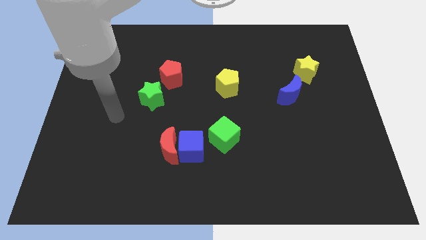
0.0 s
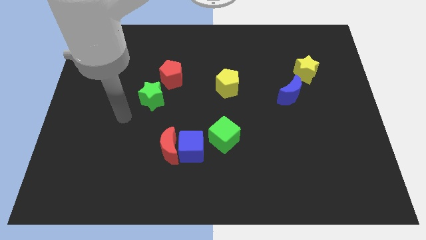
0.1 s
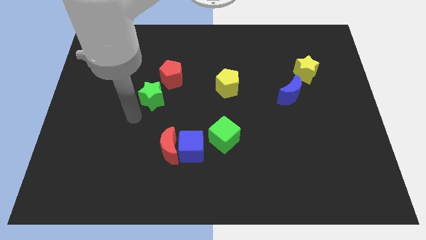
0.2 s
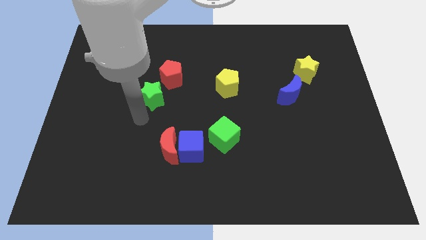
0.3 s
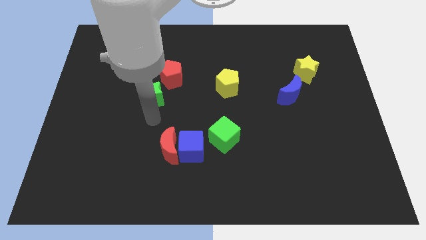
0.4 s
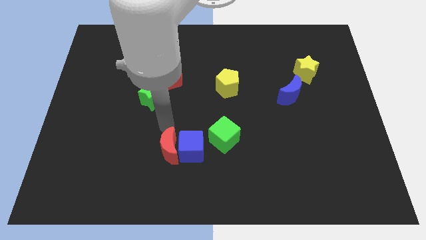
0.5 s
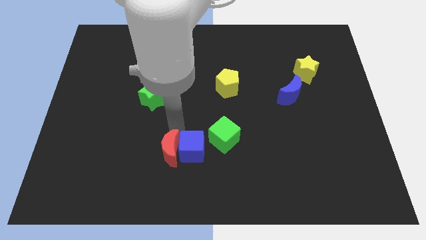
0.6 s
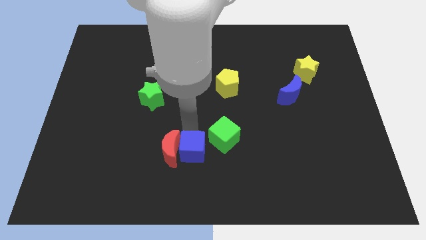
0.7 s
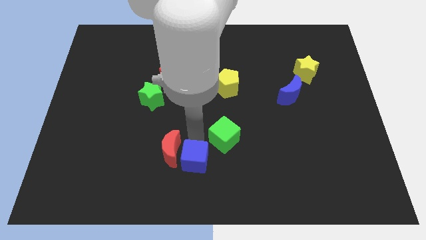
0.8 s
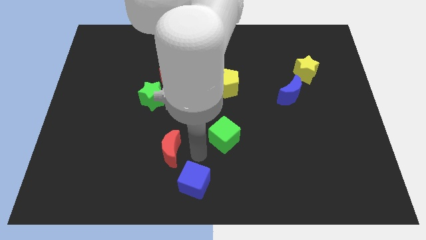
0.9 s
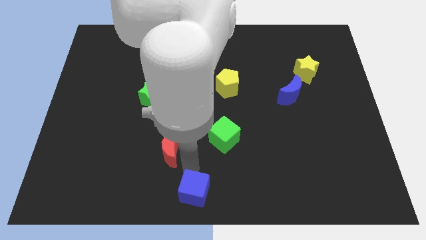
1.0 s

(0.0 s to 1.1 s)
move the red moon away from the blue cube

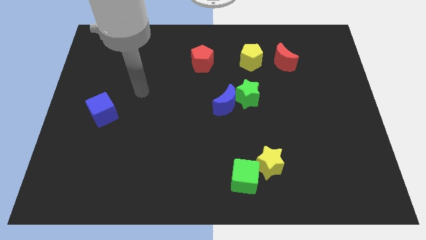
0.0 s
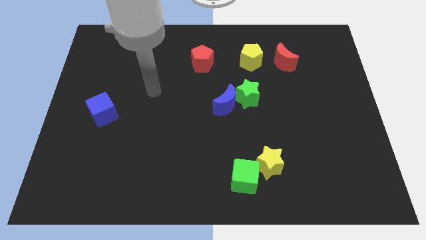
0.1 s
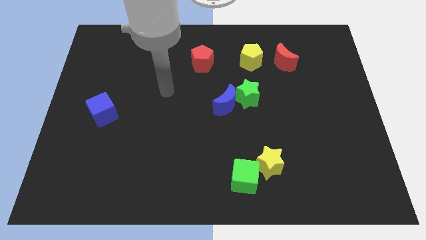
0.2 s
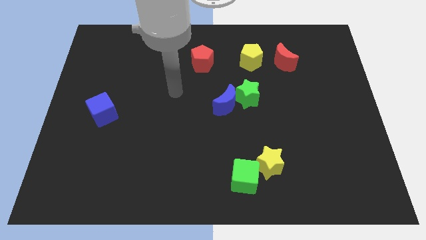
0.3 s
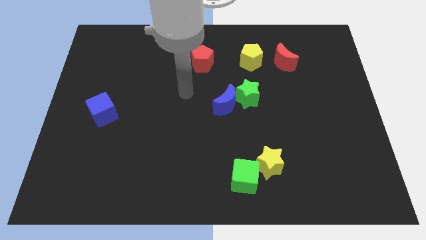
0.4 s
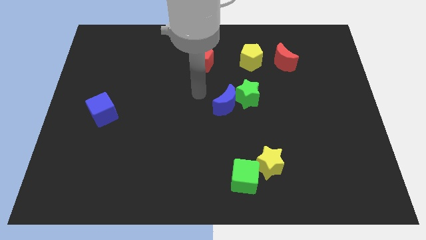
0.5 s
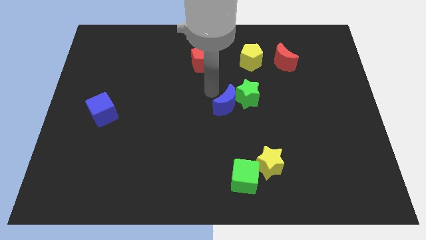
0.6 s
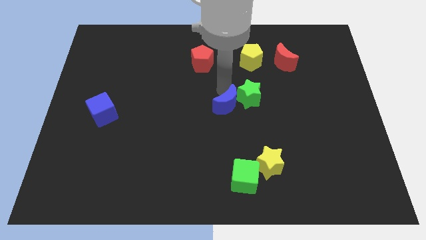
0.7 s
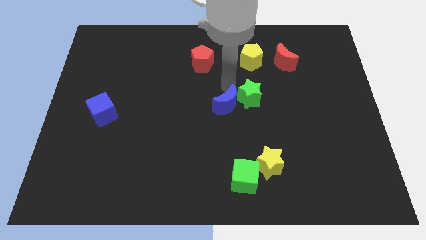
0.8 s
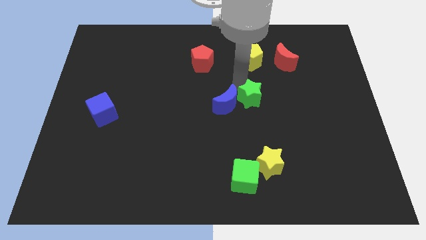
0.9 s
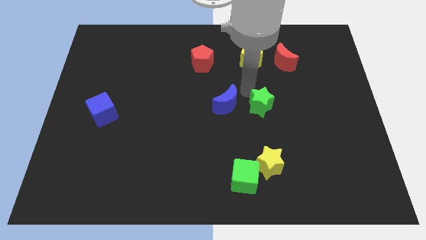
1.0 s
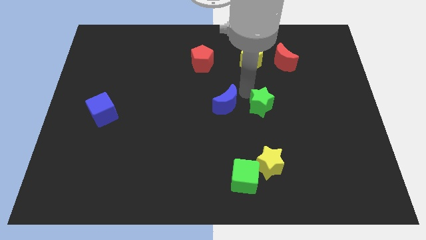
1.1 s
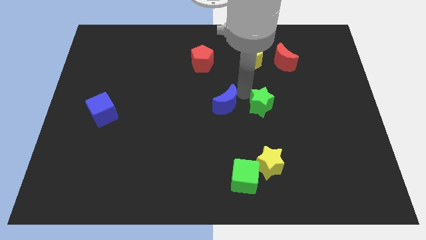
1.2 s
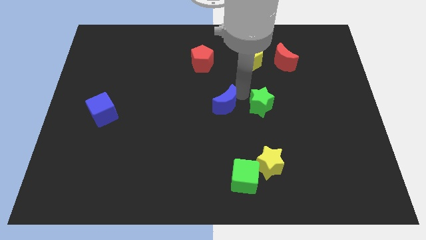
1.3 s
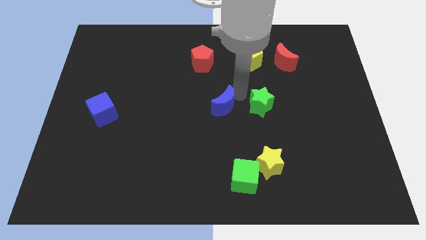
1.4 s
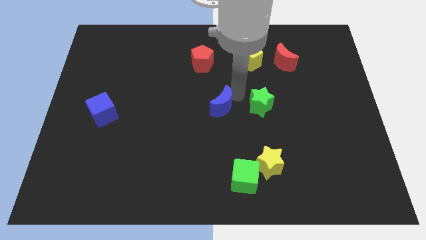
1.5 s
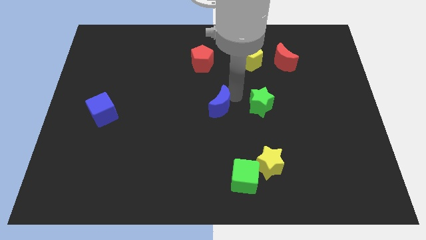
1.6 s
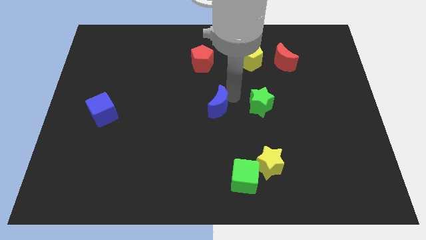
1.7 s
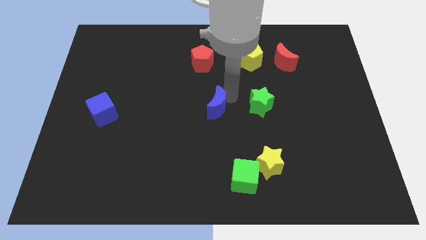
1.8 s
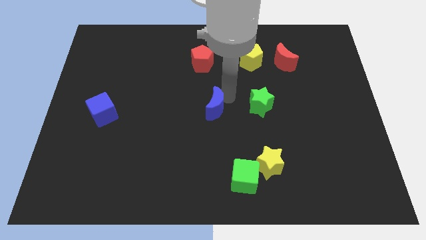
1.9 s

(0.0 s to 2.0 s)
pull the blue moon apart from the green star

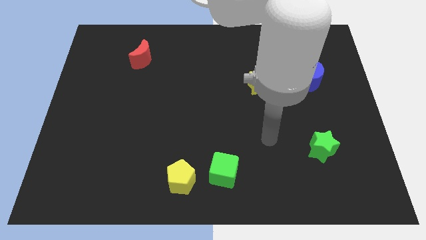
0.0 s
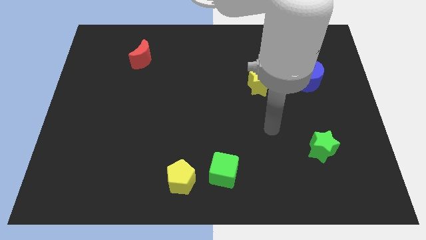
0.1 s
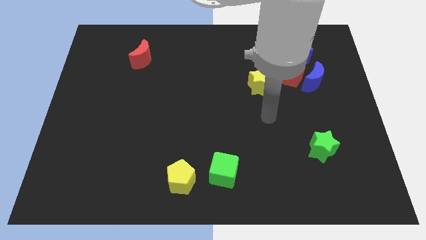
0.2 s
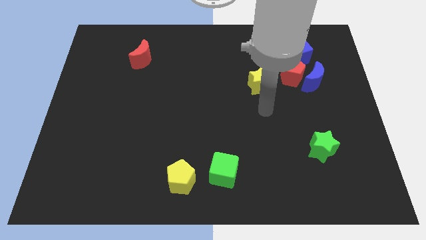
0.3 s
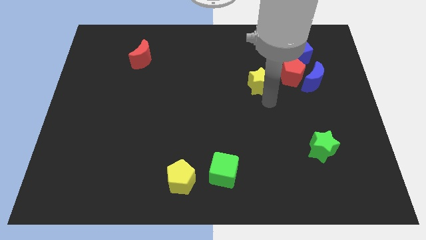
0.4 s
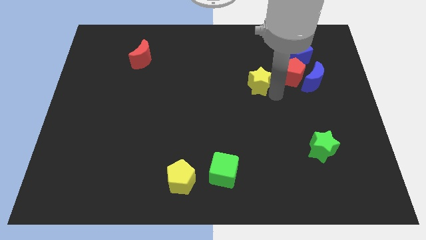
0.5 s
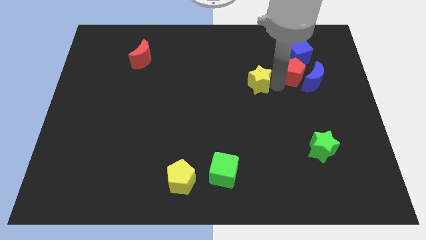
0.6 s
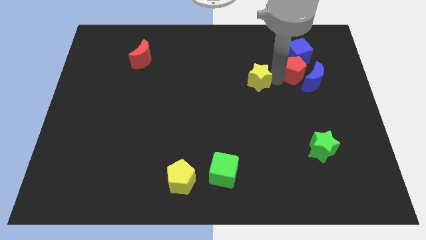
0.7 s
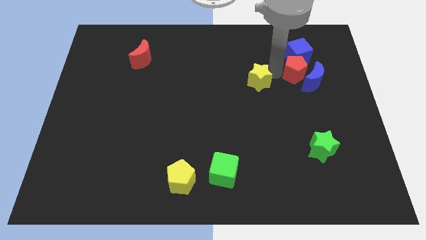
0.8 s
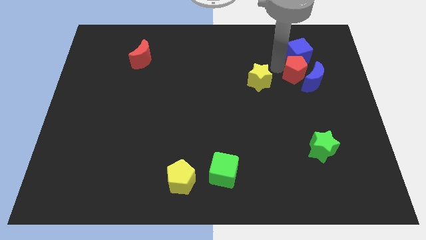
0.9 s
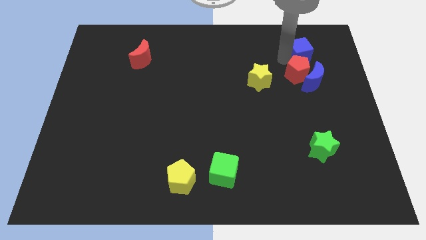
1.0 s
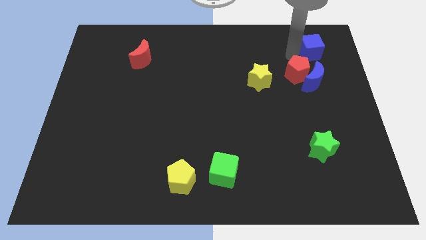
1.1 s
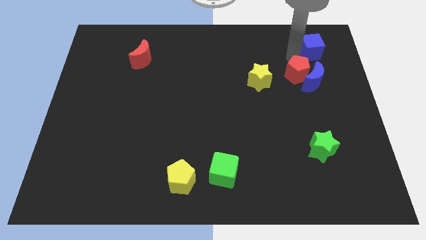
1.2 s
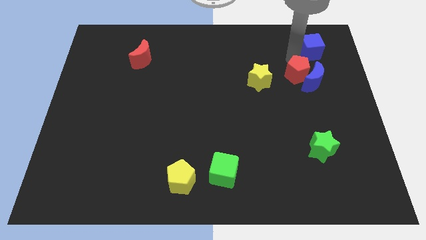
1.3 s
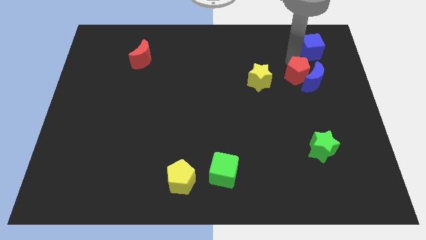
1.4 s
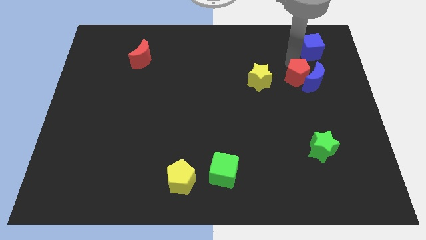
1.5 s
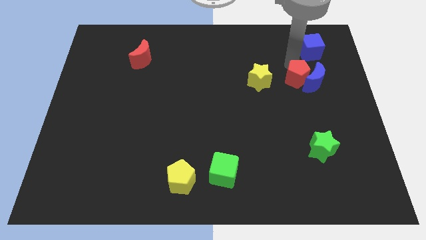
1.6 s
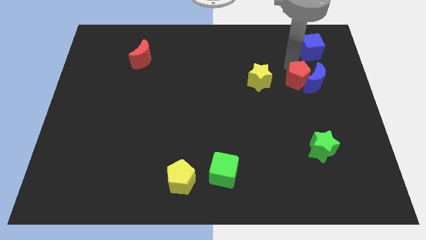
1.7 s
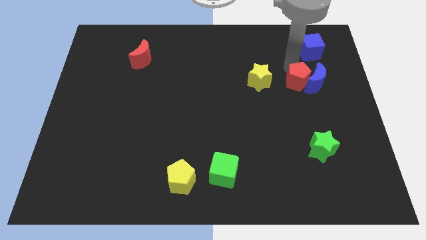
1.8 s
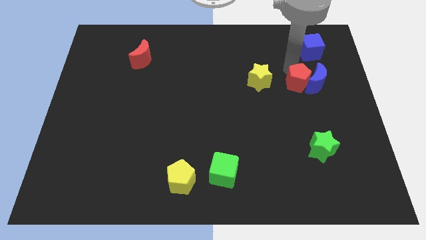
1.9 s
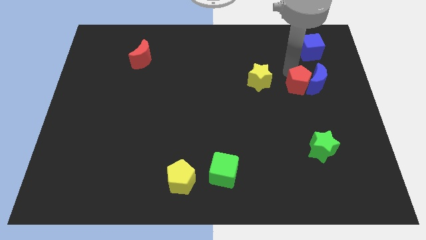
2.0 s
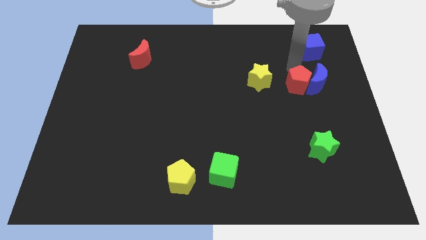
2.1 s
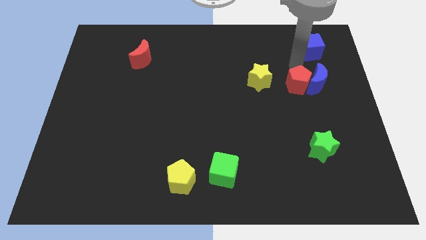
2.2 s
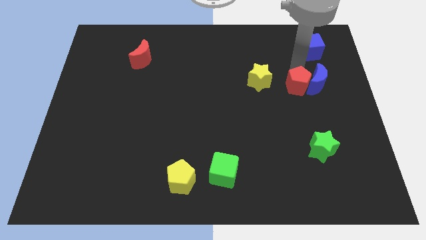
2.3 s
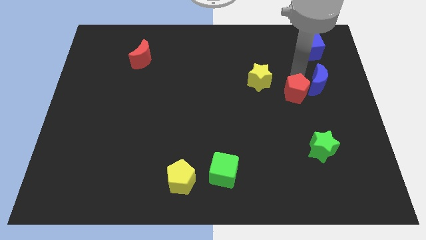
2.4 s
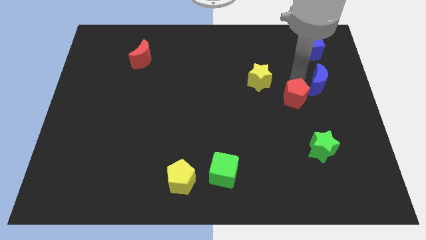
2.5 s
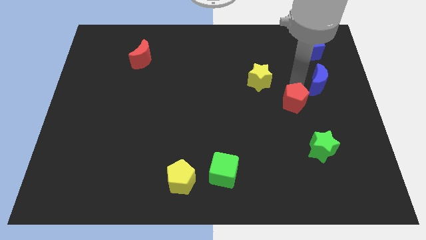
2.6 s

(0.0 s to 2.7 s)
separate the red pentagon from the group of blocks

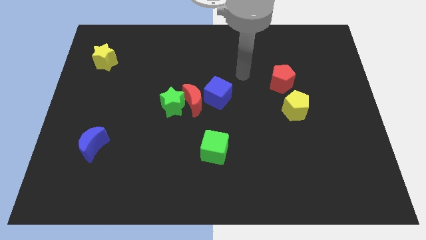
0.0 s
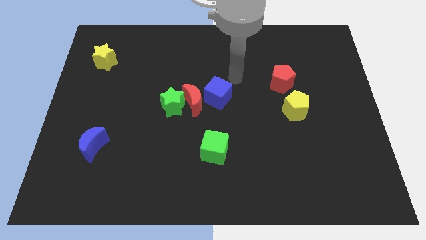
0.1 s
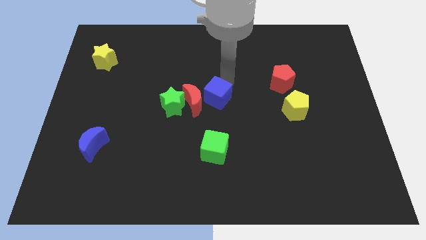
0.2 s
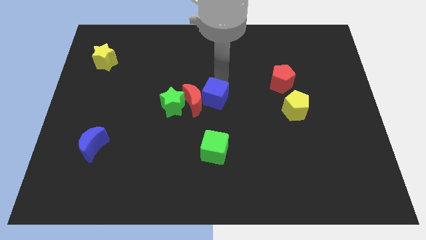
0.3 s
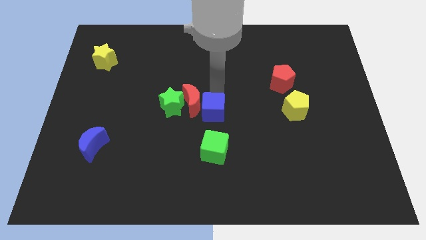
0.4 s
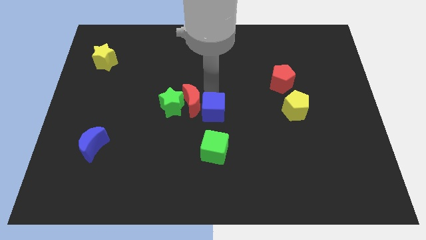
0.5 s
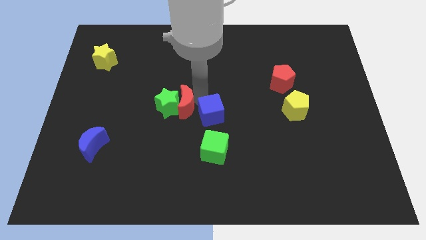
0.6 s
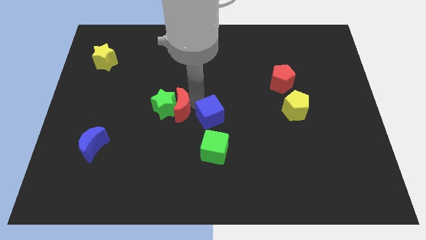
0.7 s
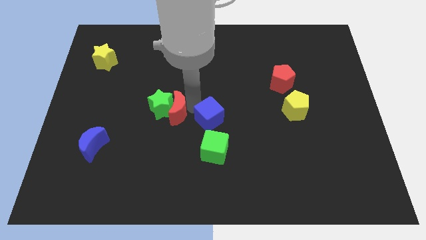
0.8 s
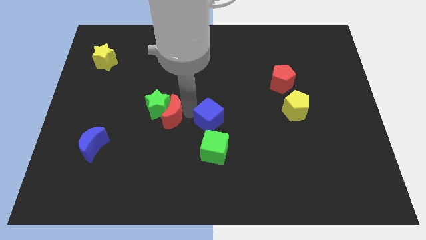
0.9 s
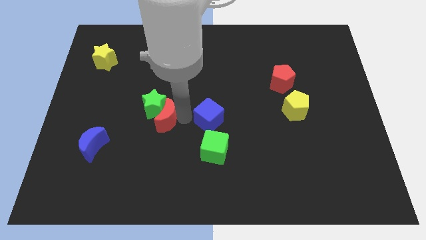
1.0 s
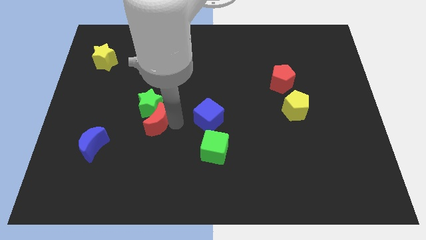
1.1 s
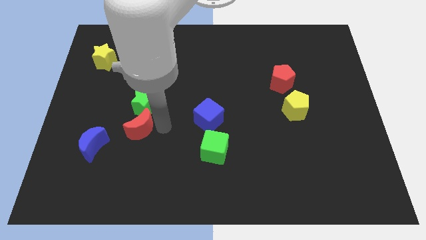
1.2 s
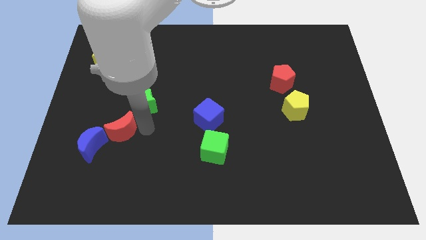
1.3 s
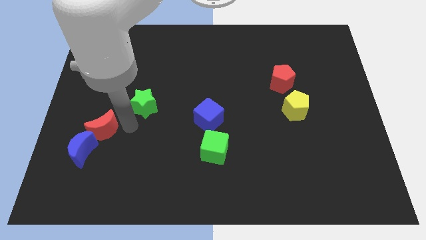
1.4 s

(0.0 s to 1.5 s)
pull the green star apart from the red moon

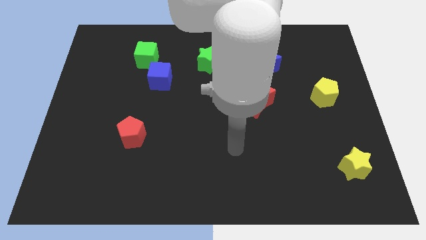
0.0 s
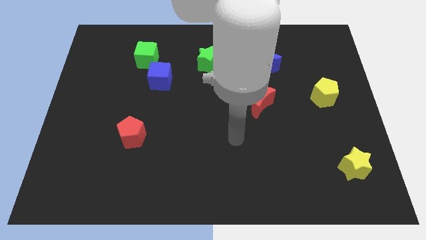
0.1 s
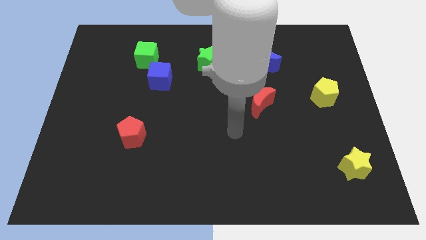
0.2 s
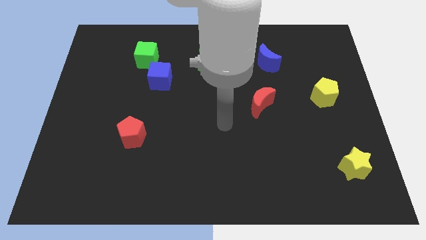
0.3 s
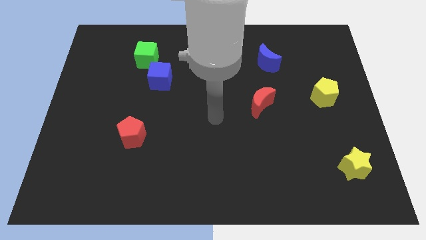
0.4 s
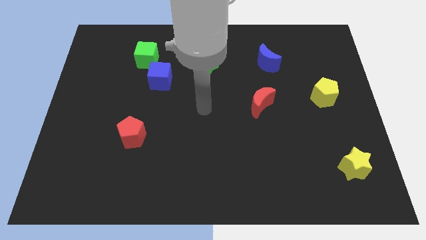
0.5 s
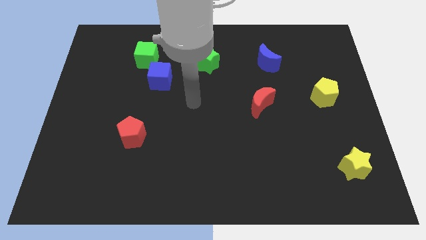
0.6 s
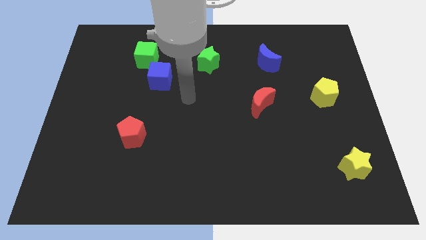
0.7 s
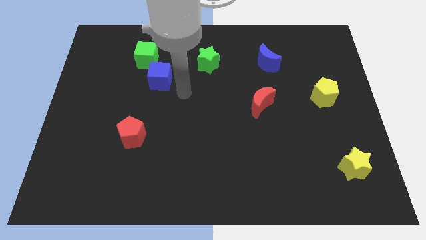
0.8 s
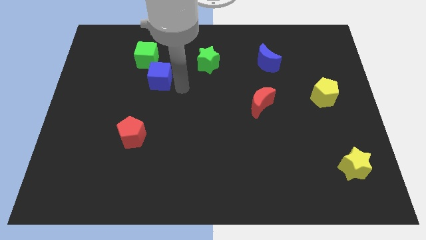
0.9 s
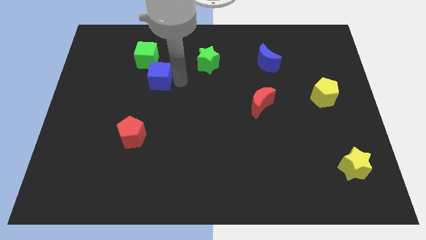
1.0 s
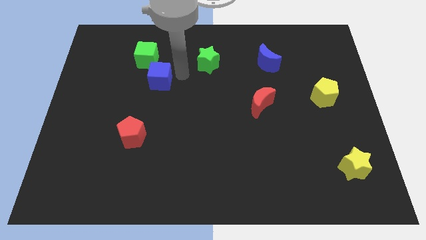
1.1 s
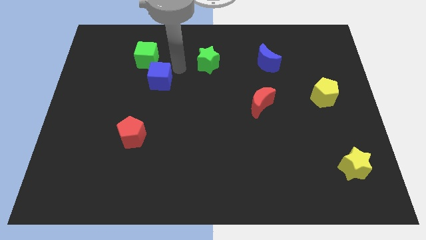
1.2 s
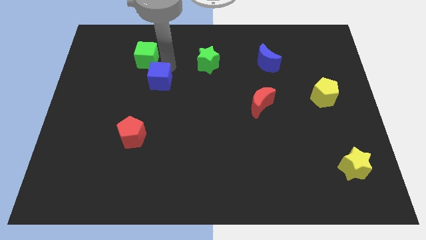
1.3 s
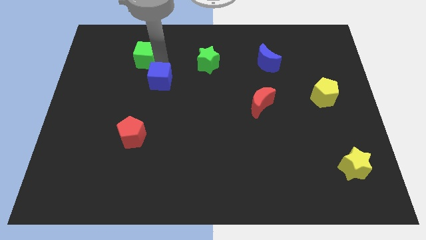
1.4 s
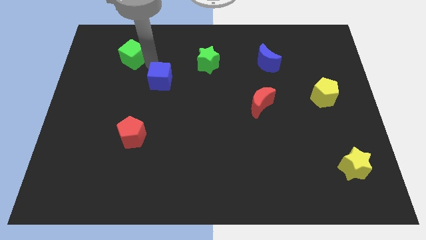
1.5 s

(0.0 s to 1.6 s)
move the blue cube away from the green cube

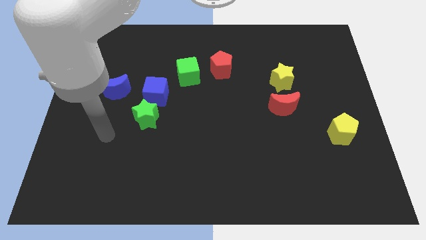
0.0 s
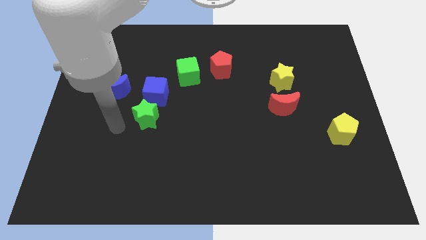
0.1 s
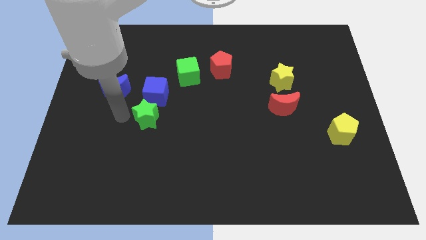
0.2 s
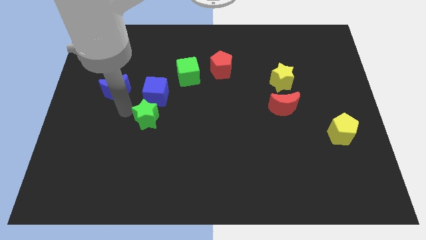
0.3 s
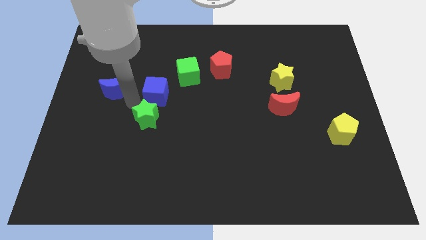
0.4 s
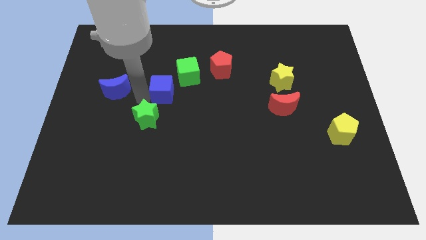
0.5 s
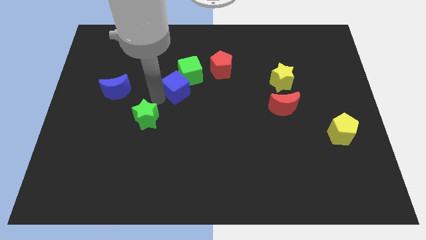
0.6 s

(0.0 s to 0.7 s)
move the green star away from the blue cube
